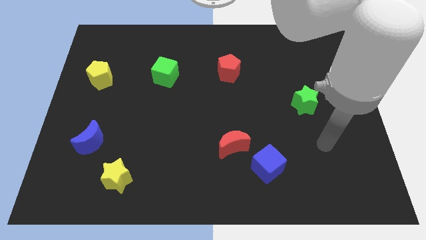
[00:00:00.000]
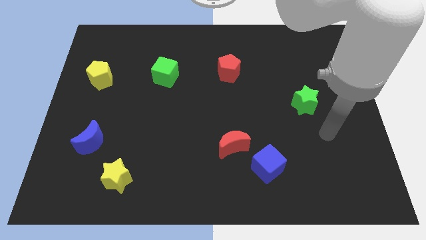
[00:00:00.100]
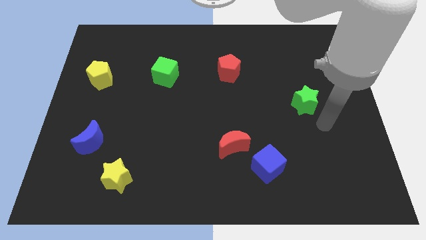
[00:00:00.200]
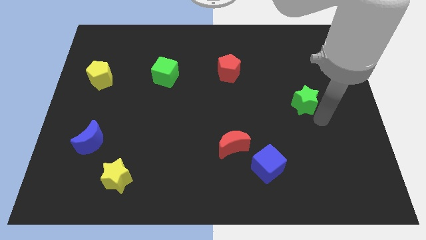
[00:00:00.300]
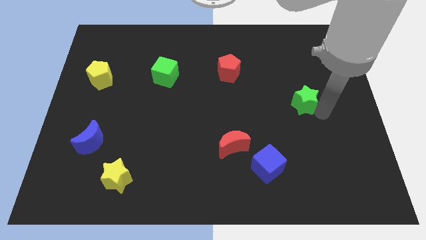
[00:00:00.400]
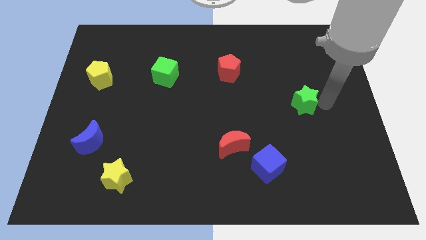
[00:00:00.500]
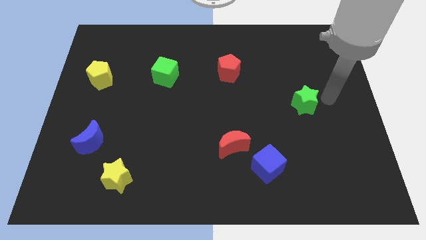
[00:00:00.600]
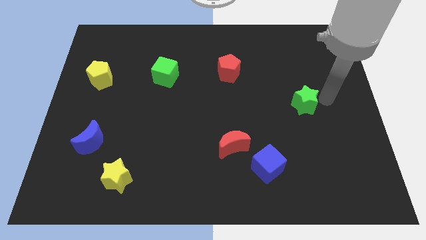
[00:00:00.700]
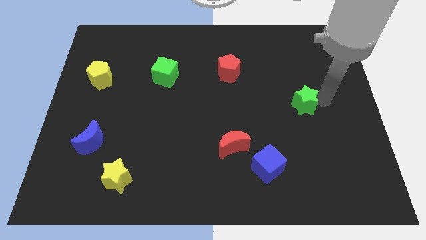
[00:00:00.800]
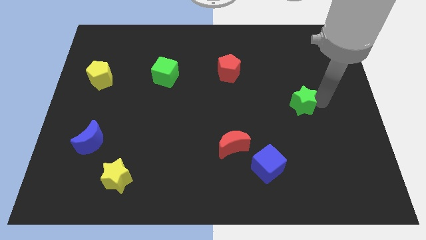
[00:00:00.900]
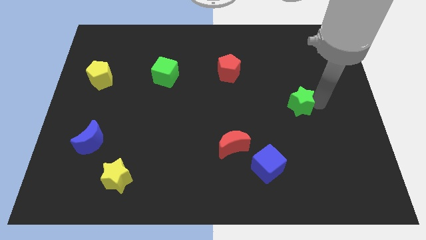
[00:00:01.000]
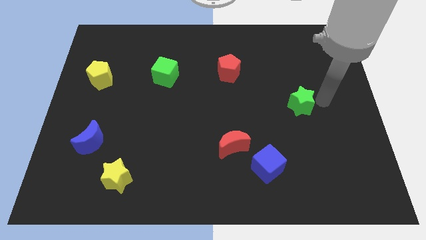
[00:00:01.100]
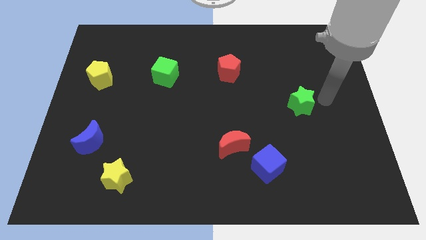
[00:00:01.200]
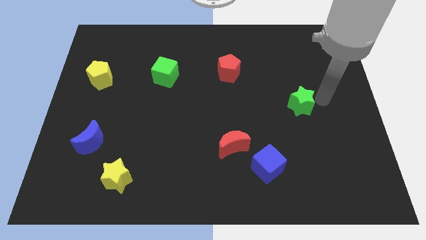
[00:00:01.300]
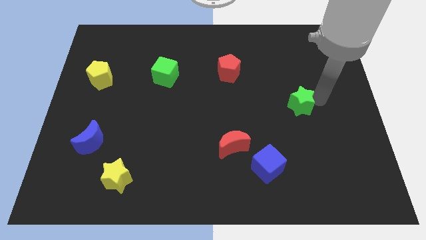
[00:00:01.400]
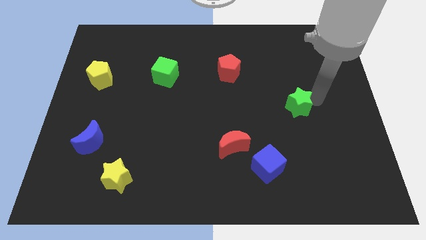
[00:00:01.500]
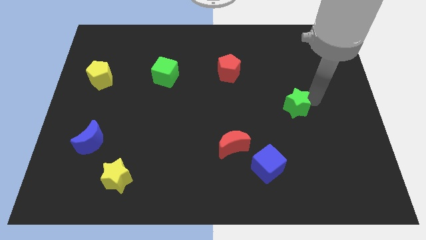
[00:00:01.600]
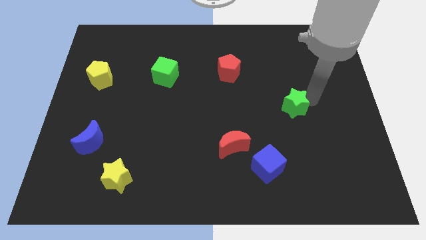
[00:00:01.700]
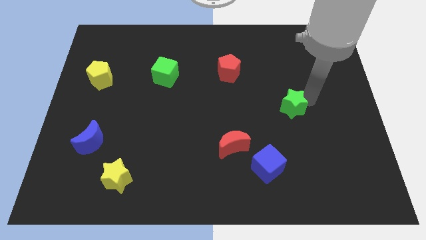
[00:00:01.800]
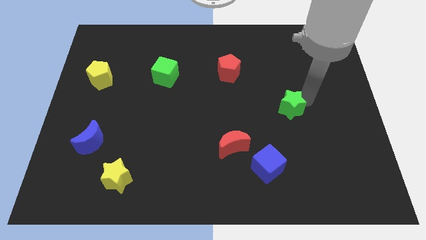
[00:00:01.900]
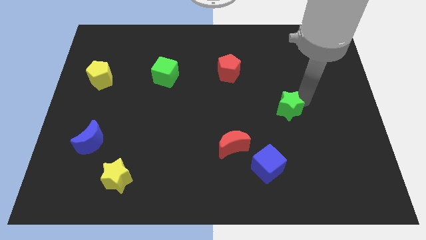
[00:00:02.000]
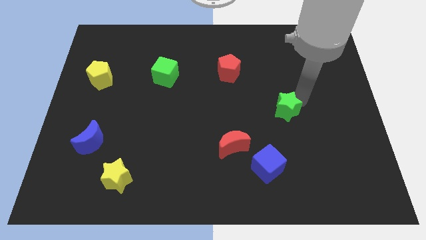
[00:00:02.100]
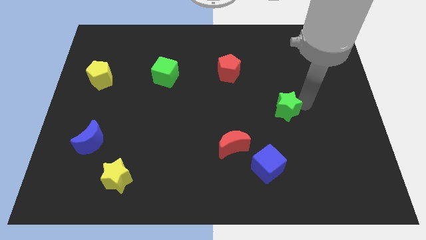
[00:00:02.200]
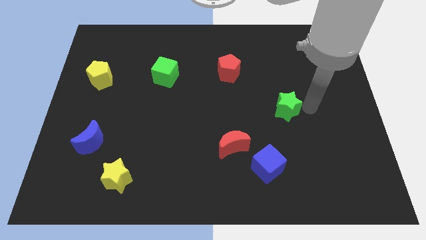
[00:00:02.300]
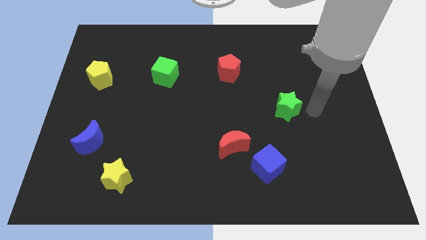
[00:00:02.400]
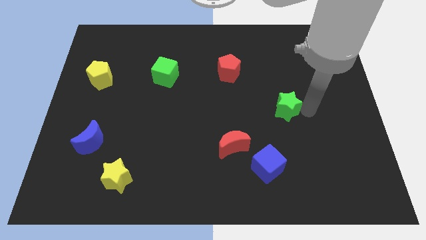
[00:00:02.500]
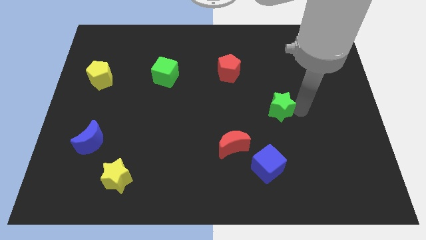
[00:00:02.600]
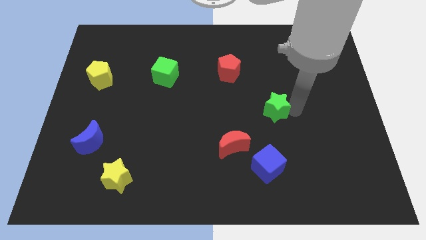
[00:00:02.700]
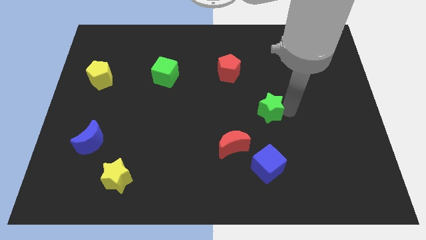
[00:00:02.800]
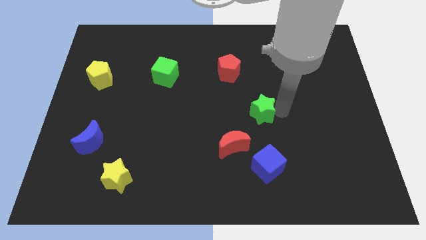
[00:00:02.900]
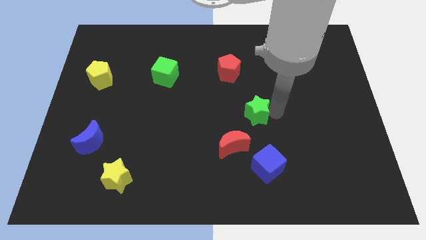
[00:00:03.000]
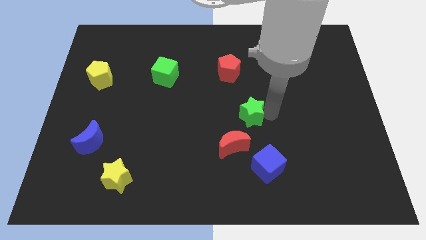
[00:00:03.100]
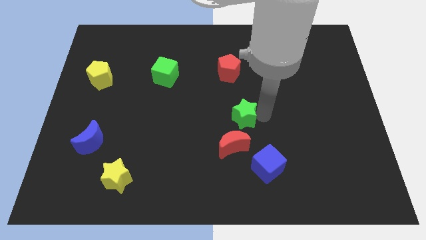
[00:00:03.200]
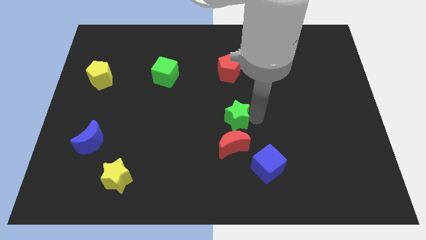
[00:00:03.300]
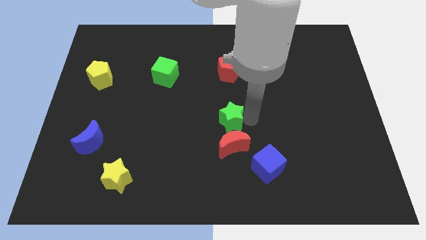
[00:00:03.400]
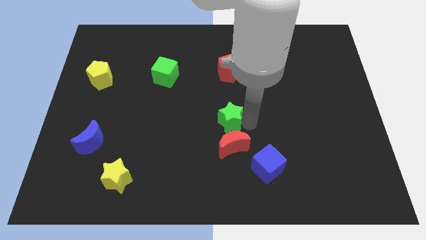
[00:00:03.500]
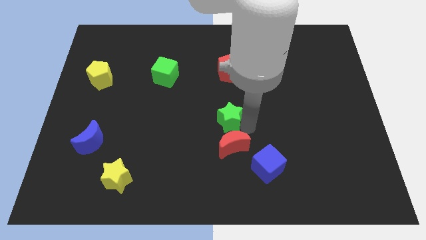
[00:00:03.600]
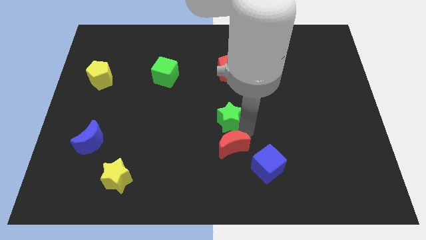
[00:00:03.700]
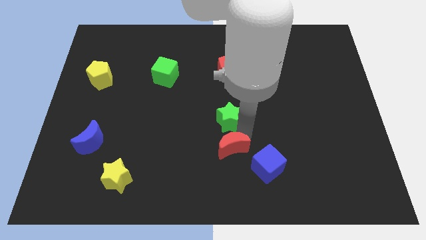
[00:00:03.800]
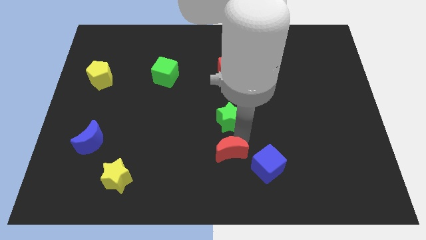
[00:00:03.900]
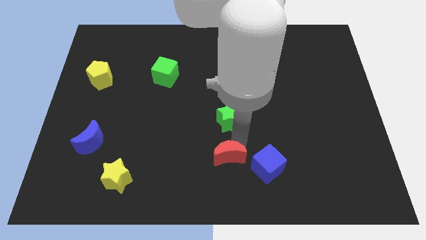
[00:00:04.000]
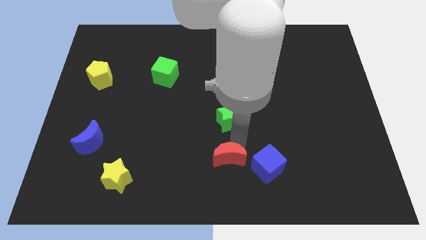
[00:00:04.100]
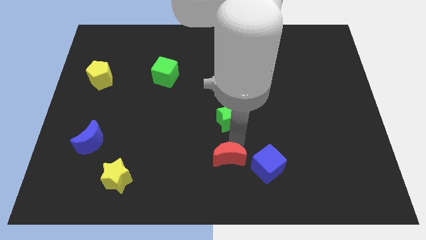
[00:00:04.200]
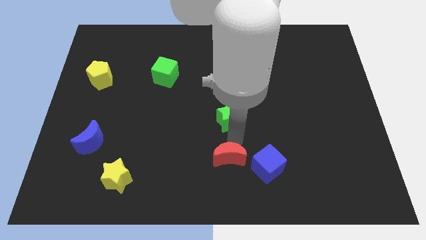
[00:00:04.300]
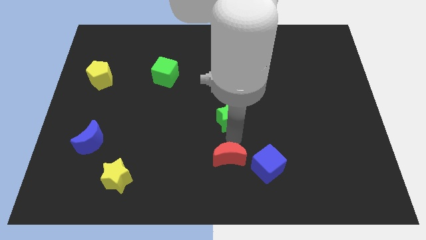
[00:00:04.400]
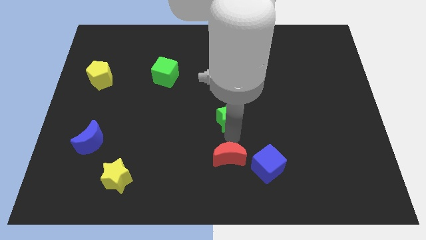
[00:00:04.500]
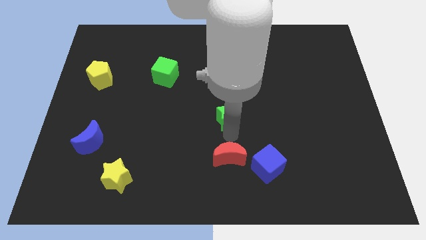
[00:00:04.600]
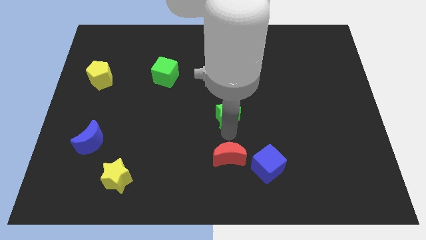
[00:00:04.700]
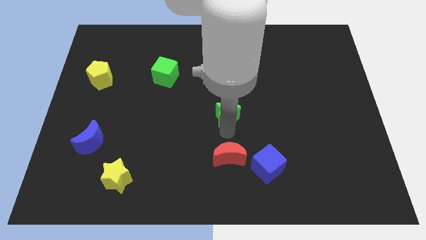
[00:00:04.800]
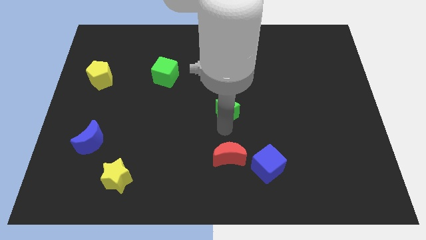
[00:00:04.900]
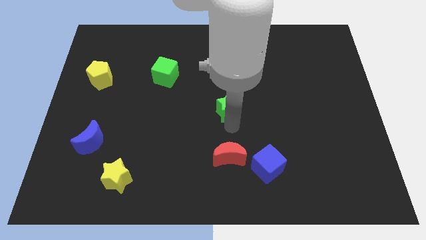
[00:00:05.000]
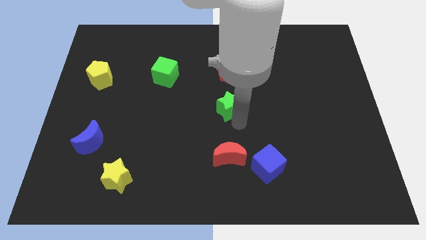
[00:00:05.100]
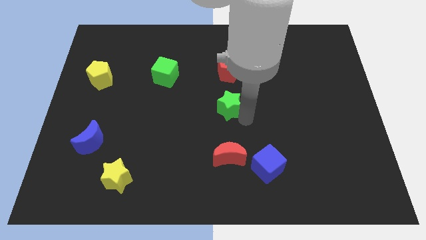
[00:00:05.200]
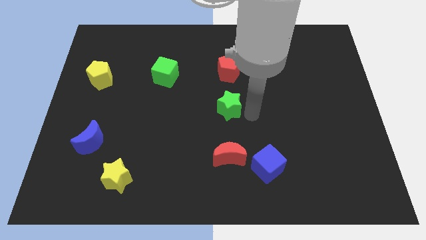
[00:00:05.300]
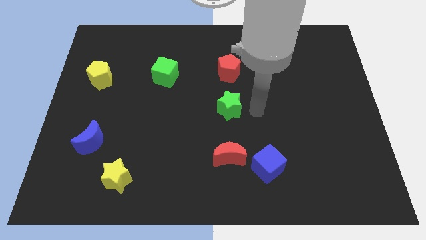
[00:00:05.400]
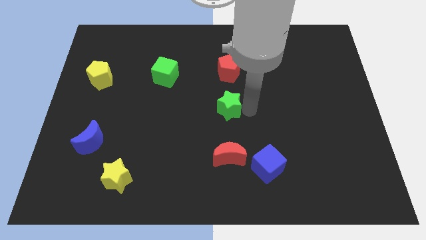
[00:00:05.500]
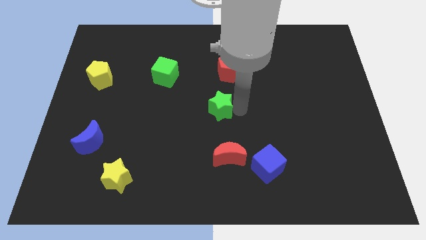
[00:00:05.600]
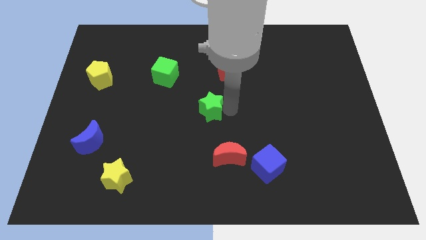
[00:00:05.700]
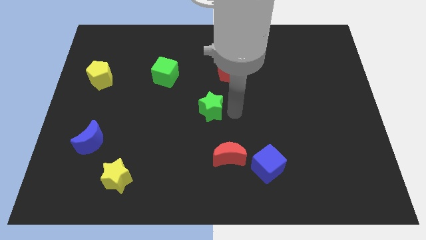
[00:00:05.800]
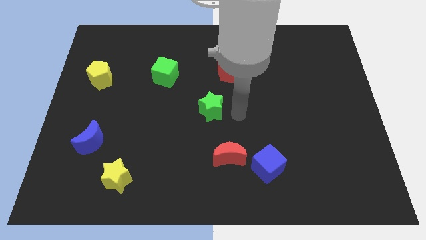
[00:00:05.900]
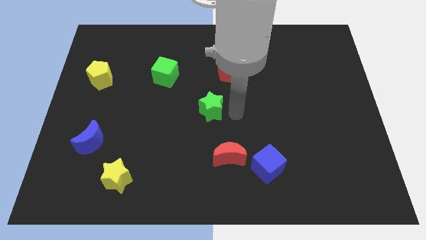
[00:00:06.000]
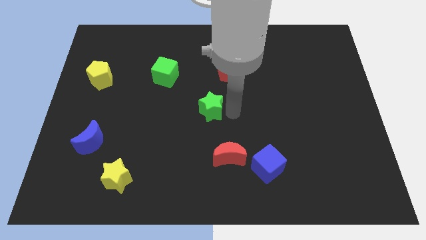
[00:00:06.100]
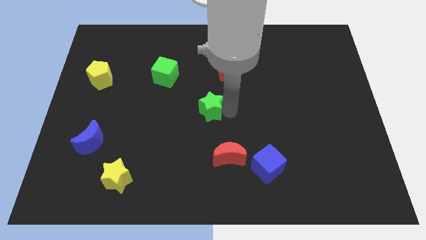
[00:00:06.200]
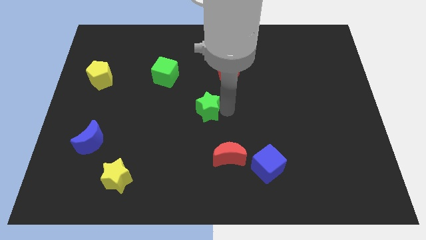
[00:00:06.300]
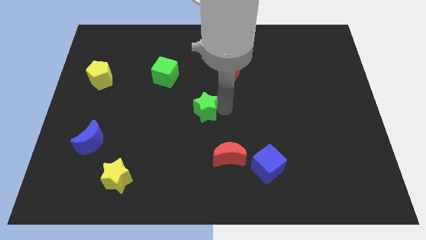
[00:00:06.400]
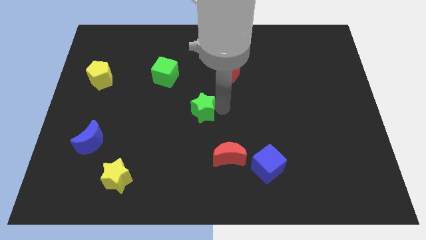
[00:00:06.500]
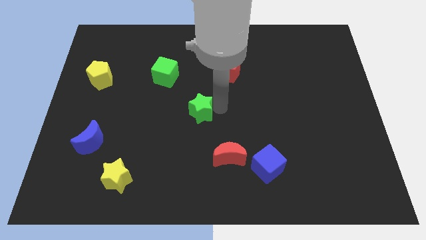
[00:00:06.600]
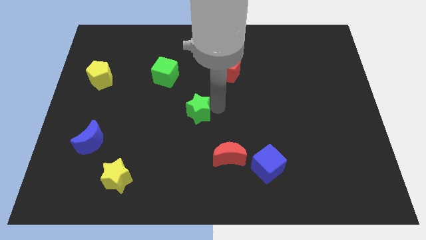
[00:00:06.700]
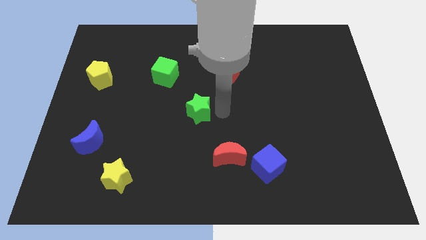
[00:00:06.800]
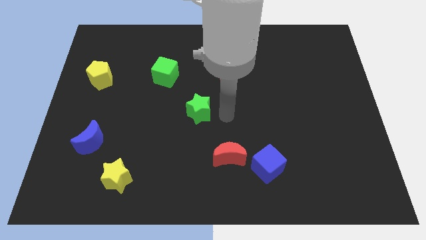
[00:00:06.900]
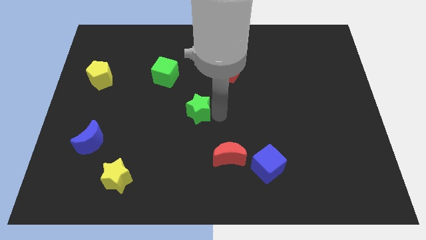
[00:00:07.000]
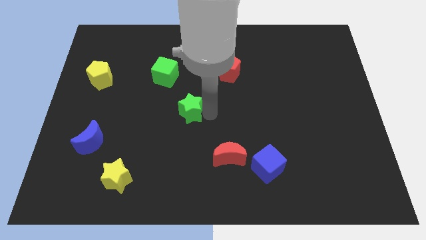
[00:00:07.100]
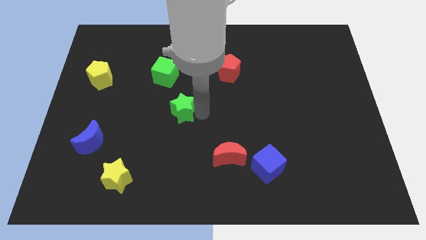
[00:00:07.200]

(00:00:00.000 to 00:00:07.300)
push the green star below the green cube
